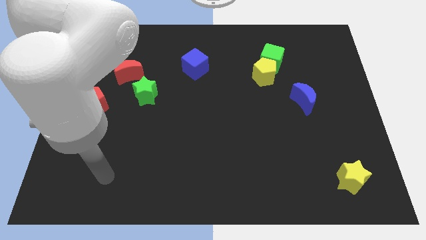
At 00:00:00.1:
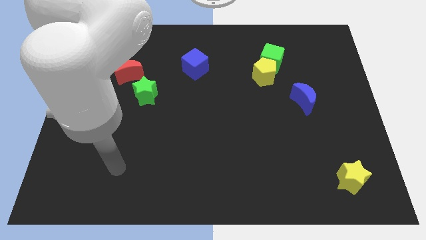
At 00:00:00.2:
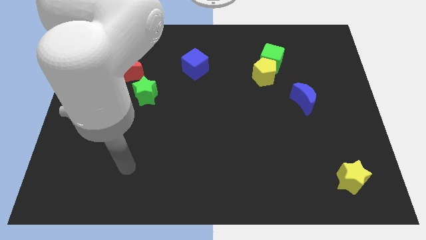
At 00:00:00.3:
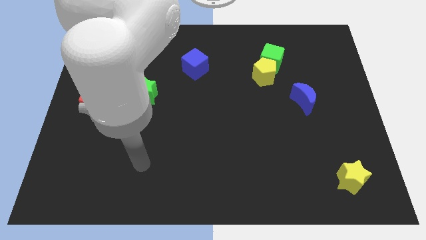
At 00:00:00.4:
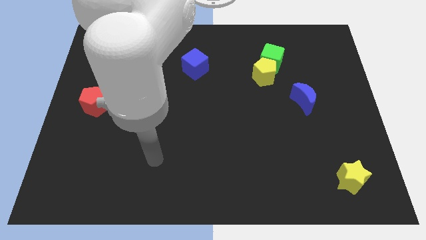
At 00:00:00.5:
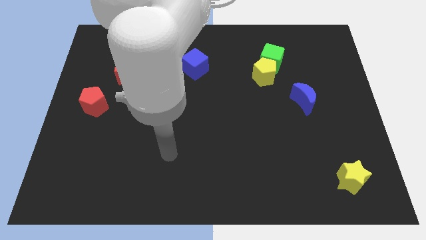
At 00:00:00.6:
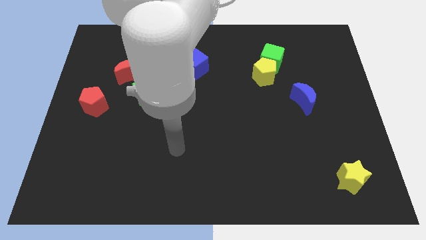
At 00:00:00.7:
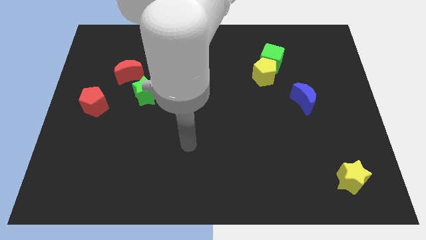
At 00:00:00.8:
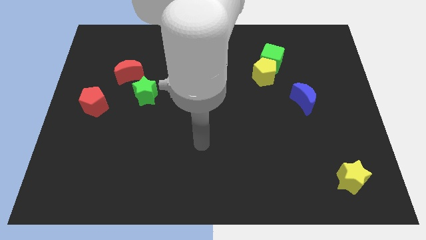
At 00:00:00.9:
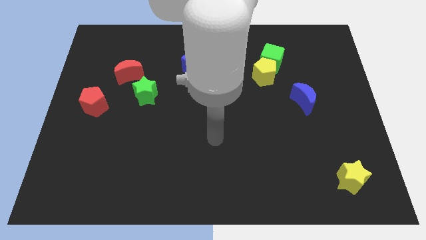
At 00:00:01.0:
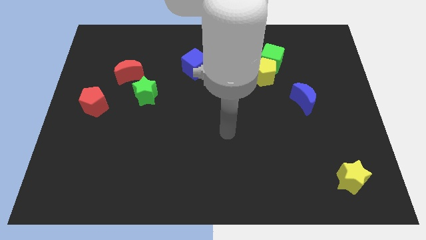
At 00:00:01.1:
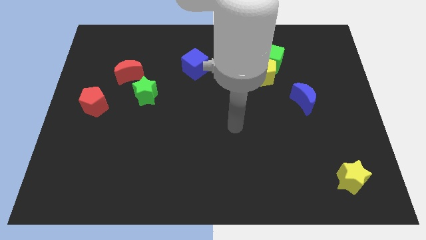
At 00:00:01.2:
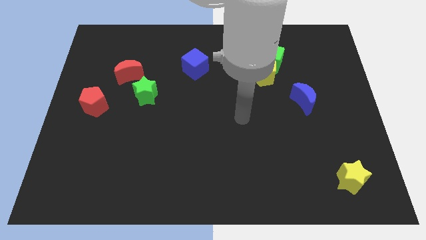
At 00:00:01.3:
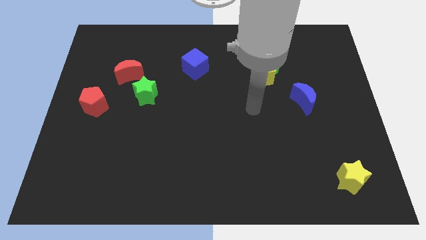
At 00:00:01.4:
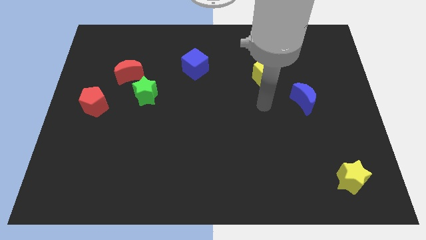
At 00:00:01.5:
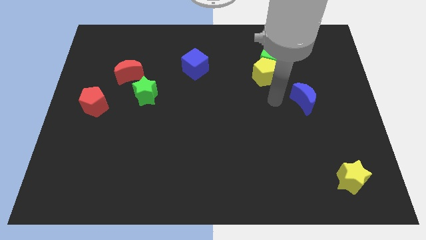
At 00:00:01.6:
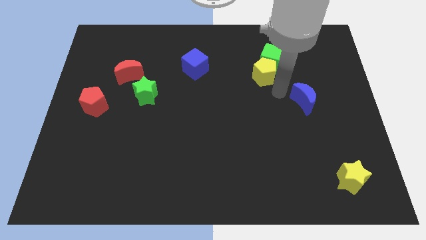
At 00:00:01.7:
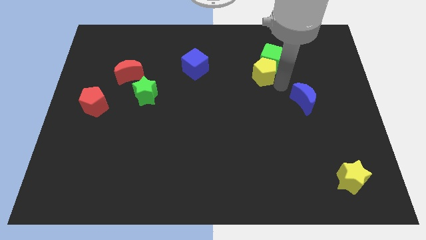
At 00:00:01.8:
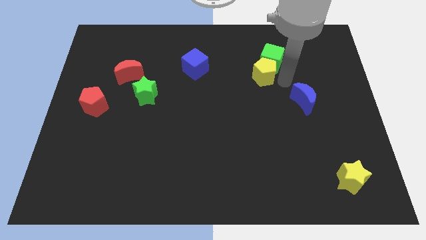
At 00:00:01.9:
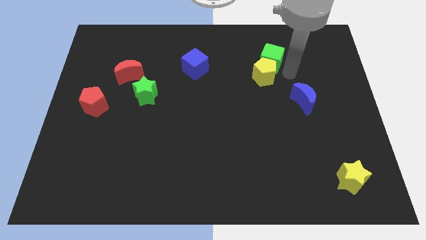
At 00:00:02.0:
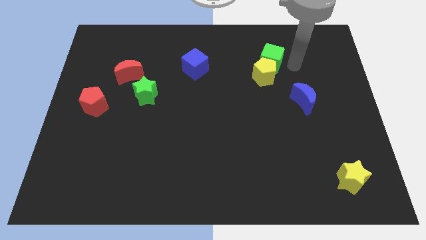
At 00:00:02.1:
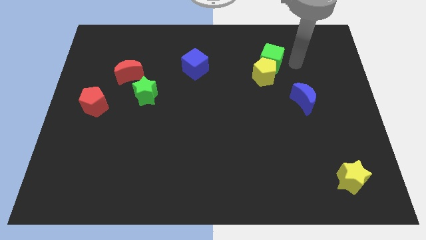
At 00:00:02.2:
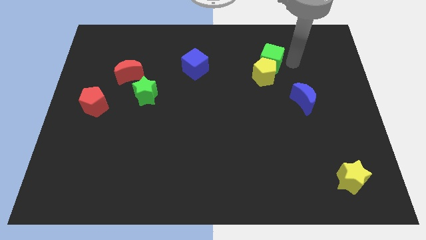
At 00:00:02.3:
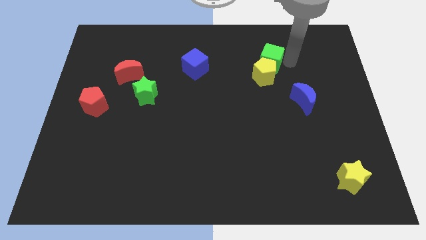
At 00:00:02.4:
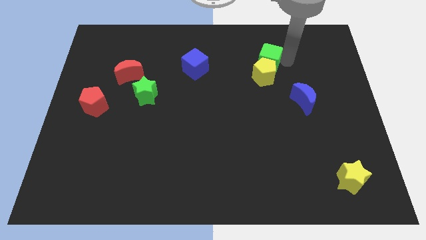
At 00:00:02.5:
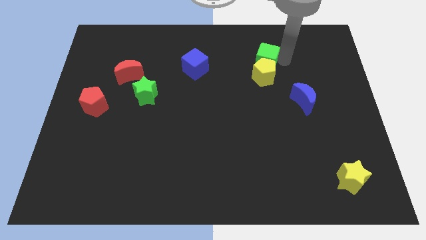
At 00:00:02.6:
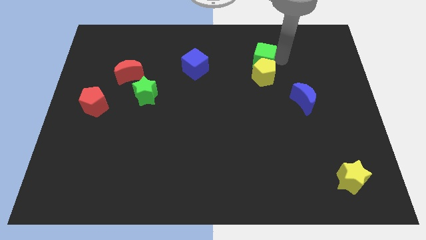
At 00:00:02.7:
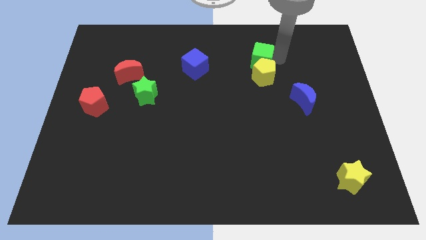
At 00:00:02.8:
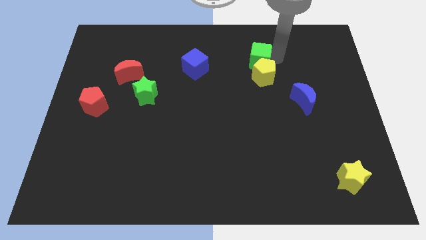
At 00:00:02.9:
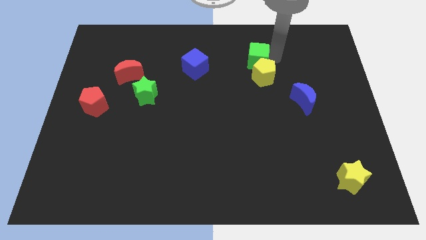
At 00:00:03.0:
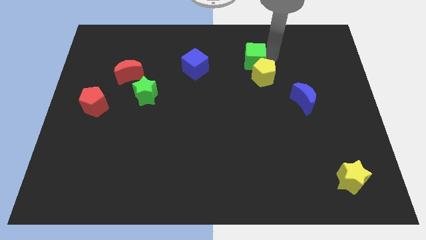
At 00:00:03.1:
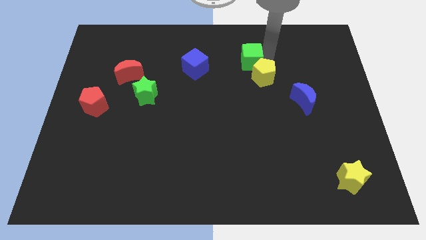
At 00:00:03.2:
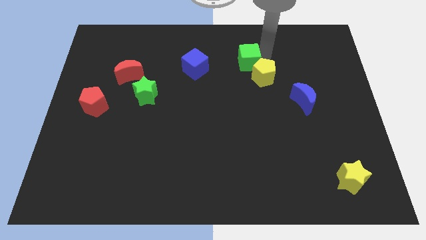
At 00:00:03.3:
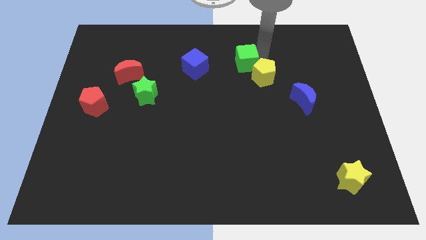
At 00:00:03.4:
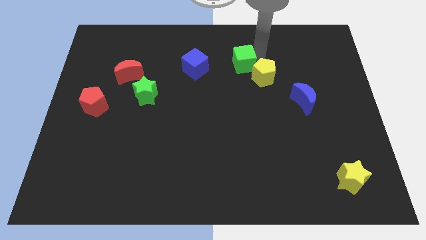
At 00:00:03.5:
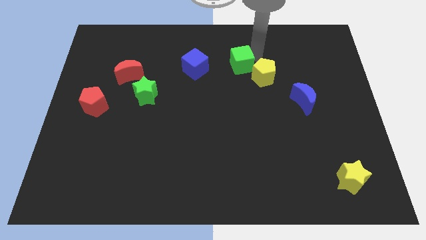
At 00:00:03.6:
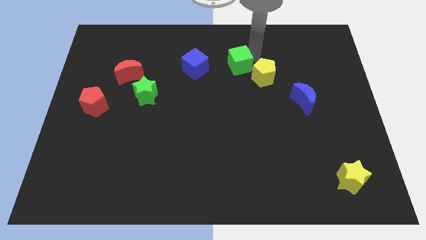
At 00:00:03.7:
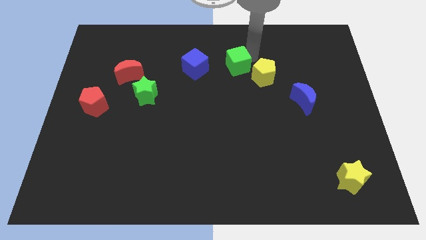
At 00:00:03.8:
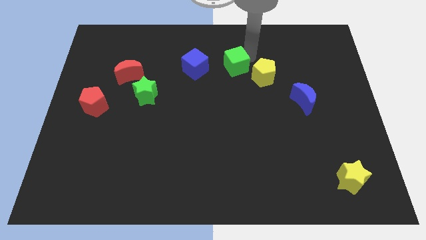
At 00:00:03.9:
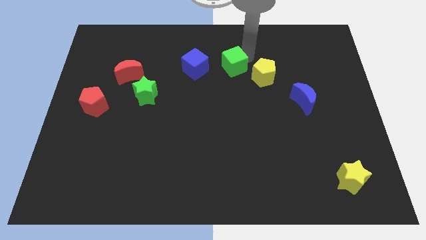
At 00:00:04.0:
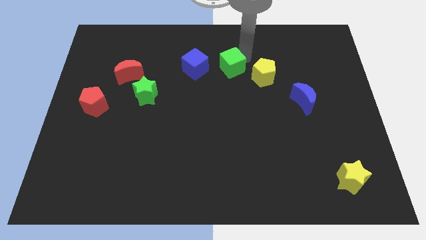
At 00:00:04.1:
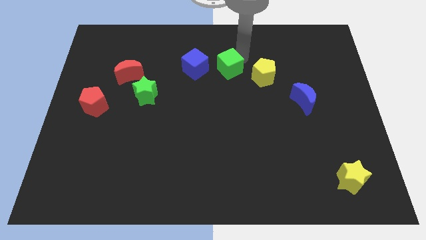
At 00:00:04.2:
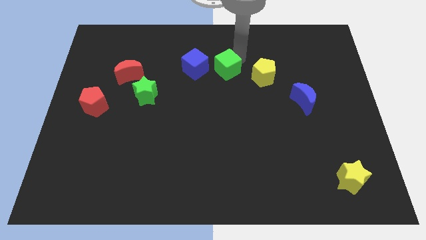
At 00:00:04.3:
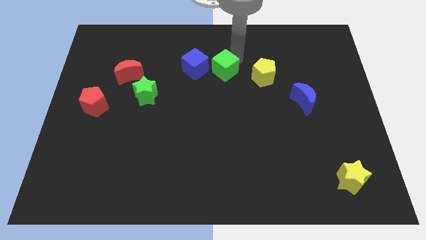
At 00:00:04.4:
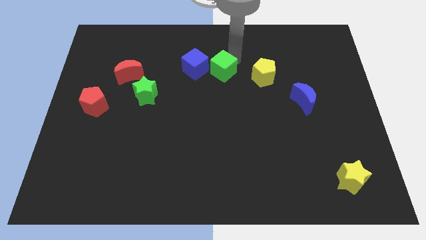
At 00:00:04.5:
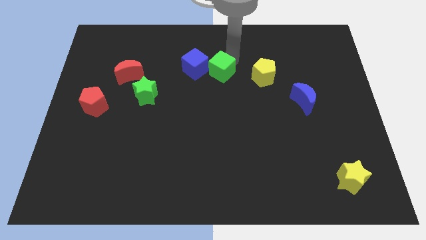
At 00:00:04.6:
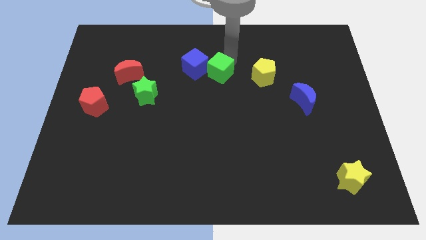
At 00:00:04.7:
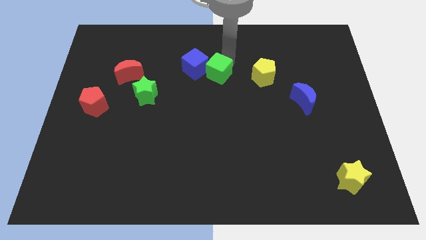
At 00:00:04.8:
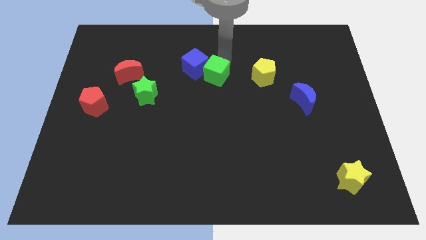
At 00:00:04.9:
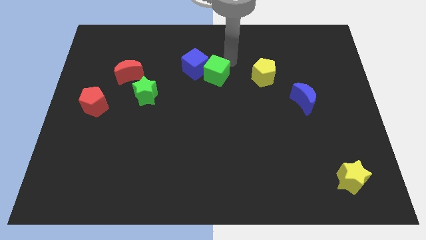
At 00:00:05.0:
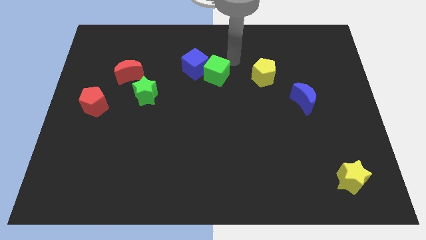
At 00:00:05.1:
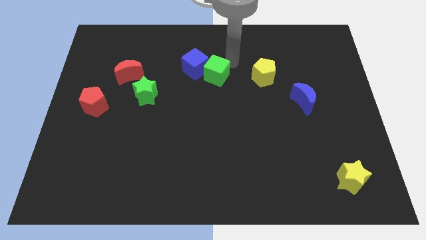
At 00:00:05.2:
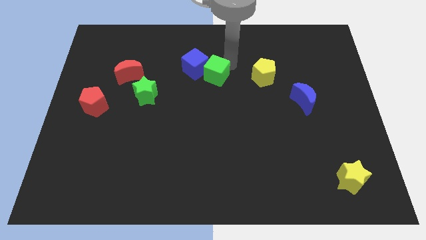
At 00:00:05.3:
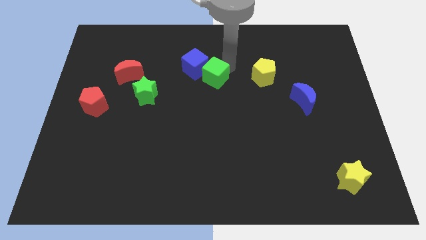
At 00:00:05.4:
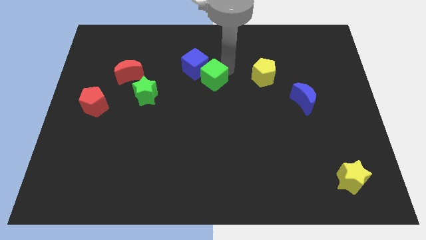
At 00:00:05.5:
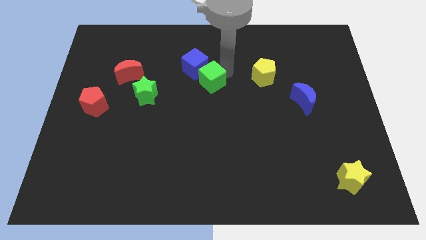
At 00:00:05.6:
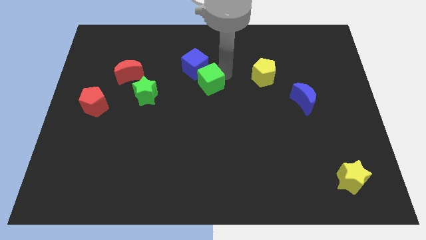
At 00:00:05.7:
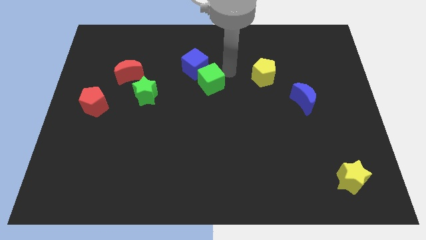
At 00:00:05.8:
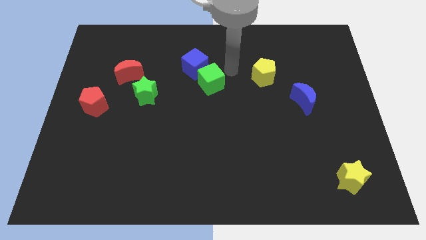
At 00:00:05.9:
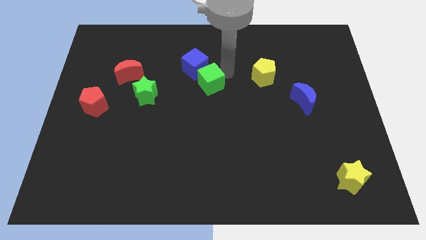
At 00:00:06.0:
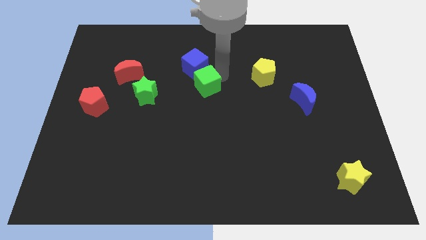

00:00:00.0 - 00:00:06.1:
push the green cube to the right of the green star

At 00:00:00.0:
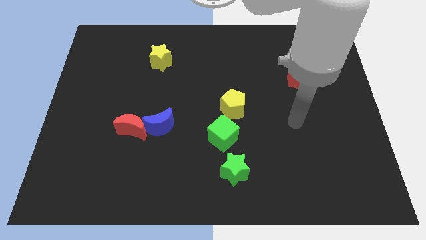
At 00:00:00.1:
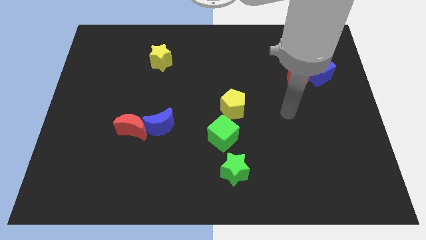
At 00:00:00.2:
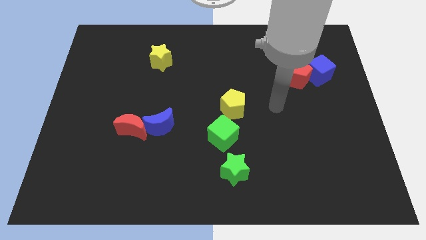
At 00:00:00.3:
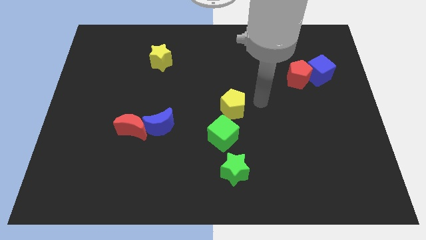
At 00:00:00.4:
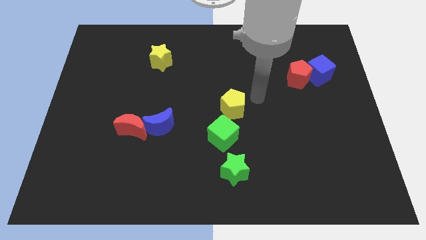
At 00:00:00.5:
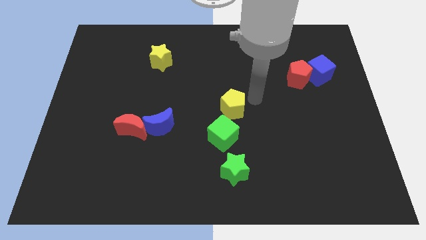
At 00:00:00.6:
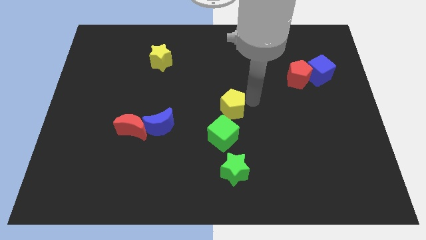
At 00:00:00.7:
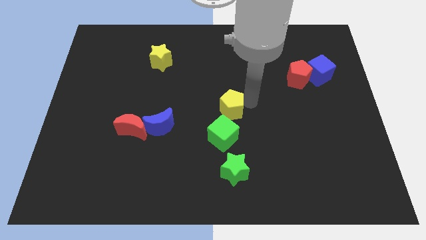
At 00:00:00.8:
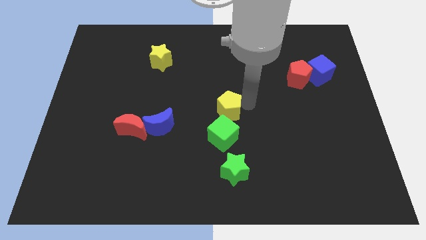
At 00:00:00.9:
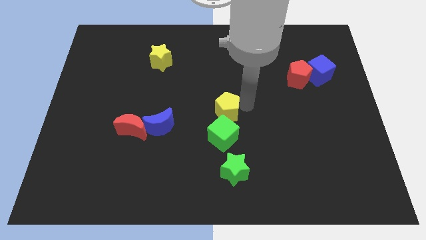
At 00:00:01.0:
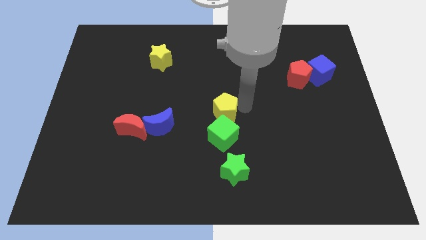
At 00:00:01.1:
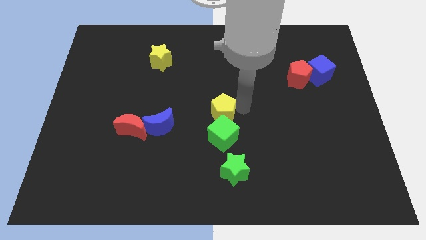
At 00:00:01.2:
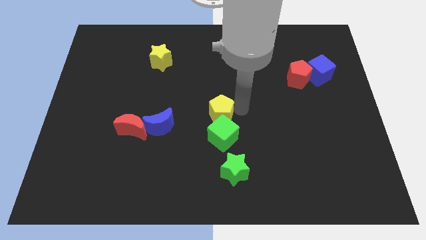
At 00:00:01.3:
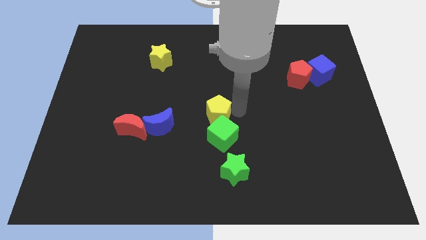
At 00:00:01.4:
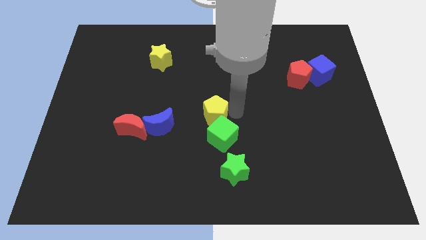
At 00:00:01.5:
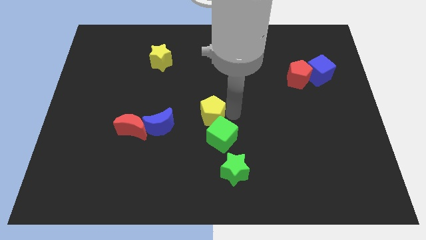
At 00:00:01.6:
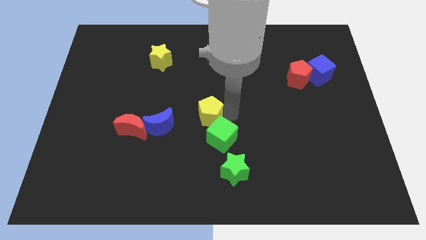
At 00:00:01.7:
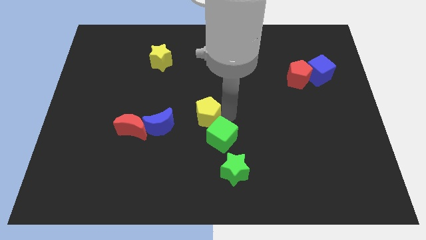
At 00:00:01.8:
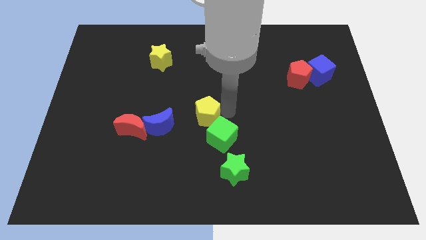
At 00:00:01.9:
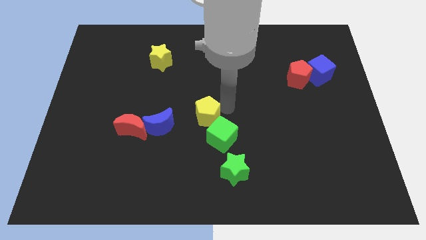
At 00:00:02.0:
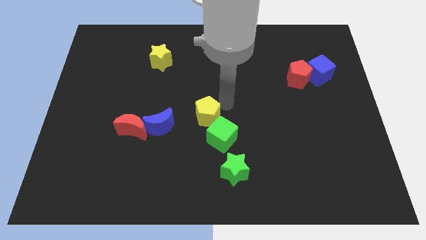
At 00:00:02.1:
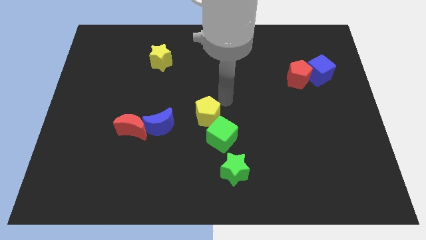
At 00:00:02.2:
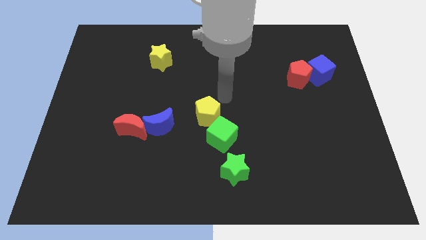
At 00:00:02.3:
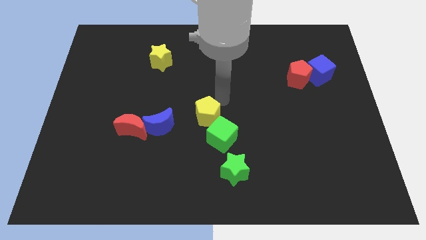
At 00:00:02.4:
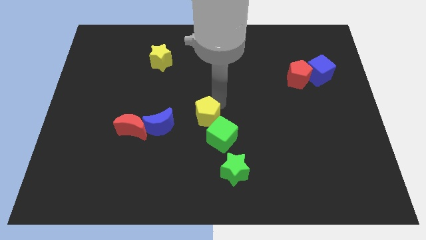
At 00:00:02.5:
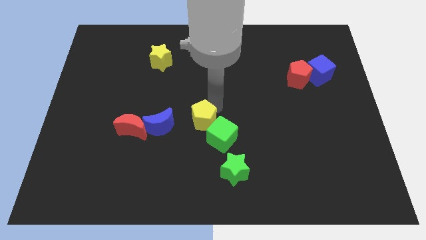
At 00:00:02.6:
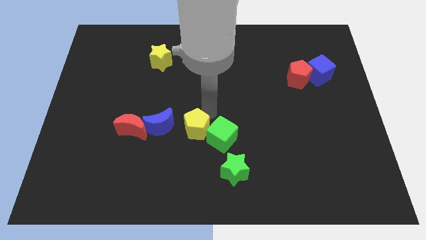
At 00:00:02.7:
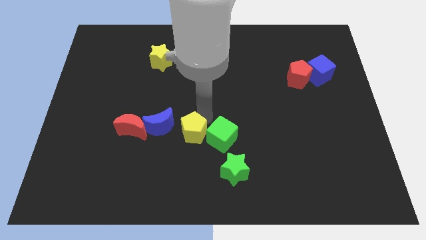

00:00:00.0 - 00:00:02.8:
push the yellow pentagon to the bottom right of the blue moon
